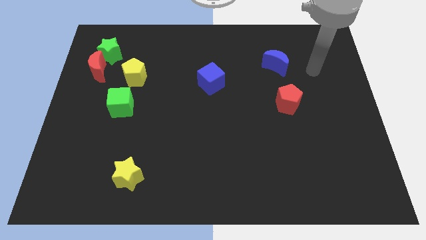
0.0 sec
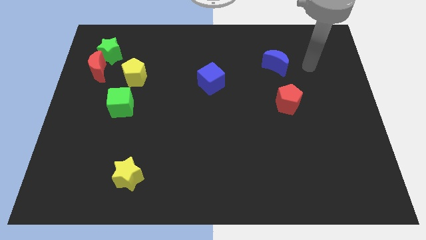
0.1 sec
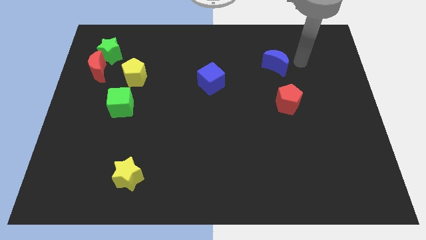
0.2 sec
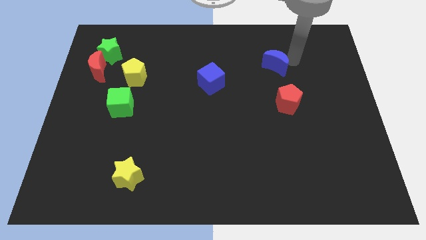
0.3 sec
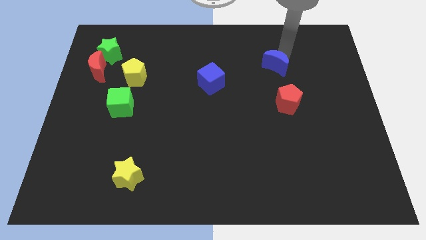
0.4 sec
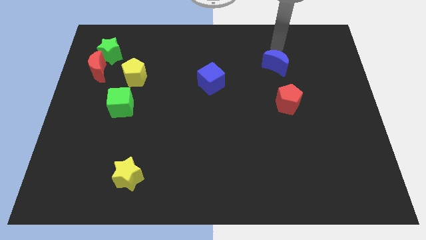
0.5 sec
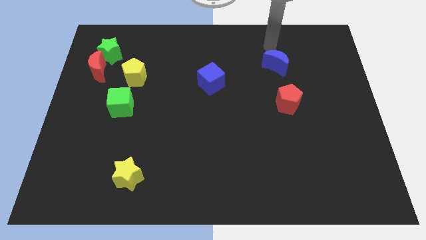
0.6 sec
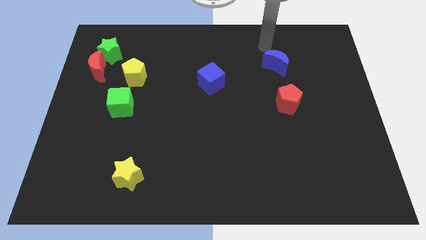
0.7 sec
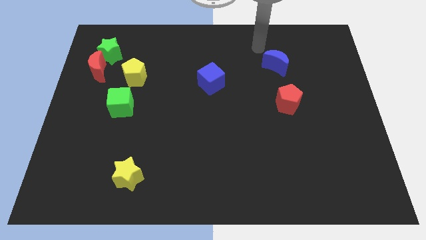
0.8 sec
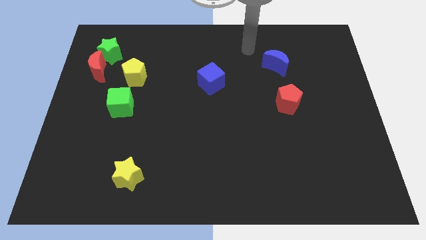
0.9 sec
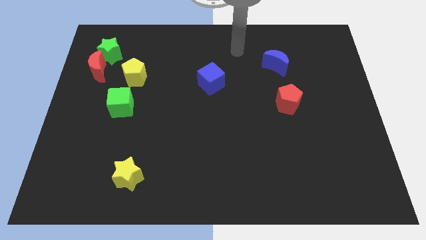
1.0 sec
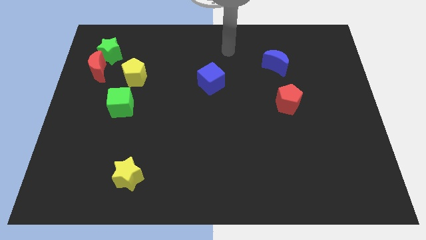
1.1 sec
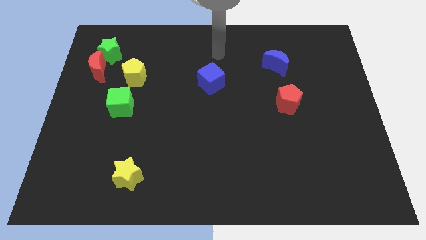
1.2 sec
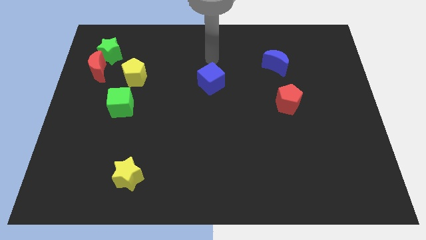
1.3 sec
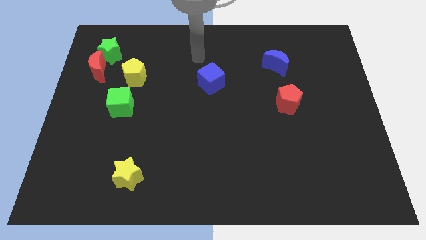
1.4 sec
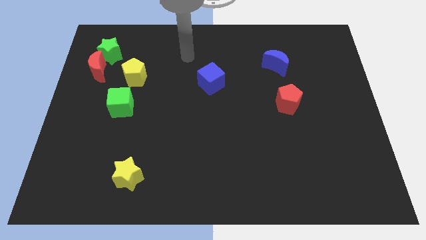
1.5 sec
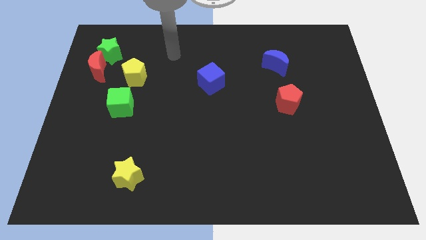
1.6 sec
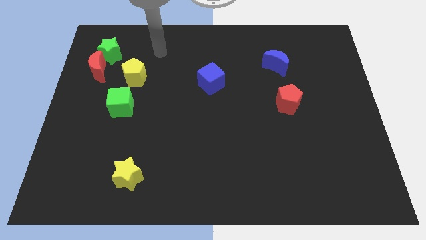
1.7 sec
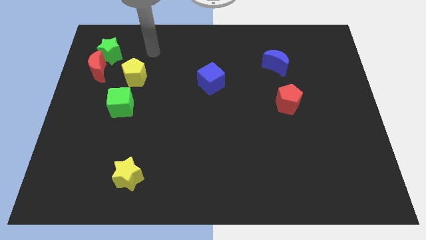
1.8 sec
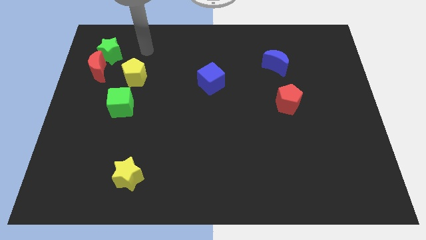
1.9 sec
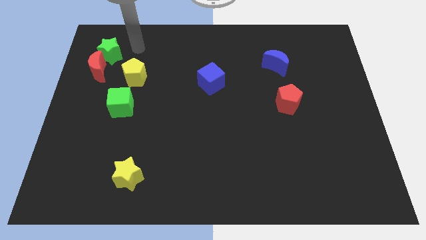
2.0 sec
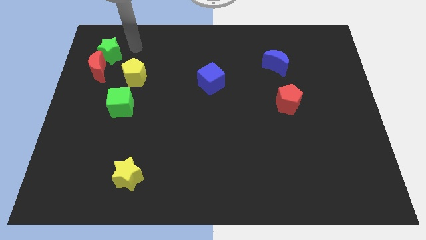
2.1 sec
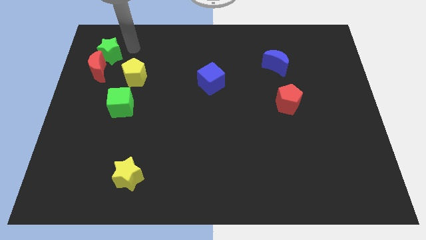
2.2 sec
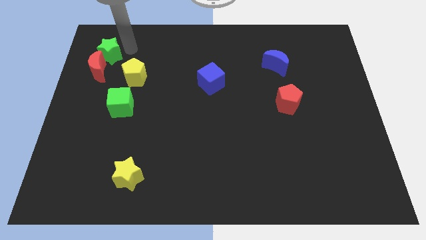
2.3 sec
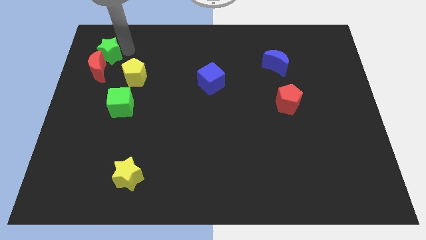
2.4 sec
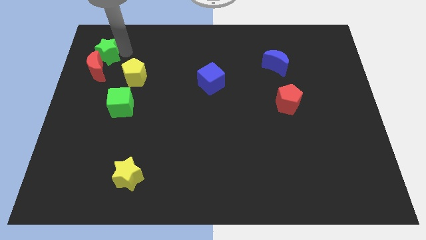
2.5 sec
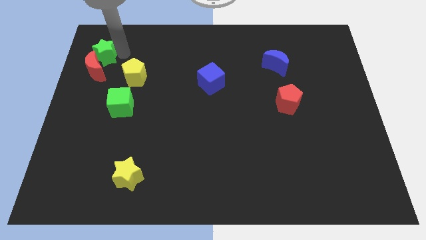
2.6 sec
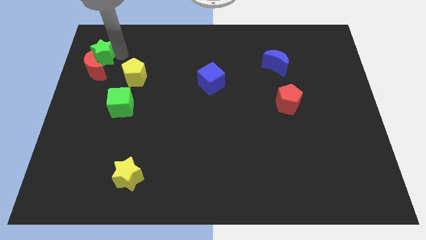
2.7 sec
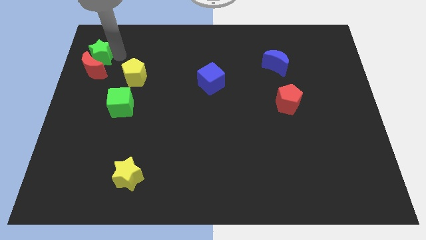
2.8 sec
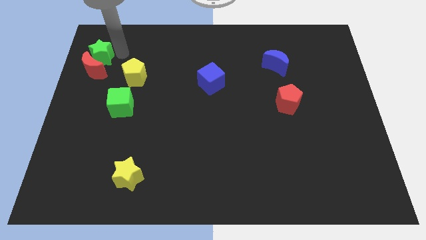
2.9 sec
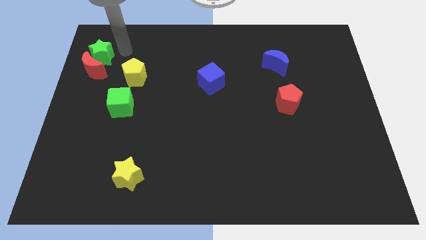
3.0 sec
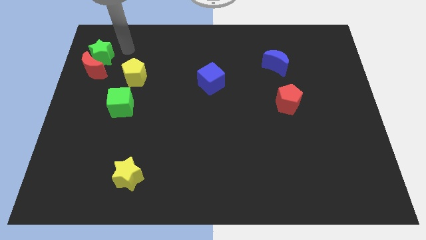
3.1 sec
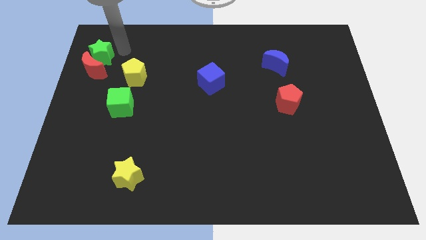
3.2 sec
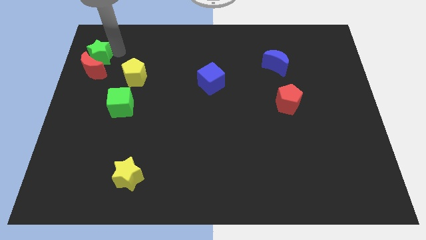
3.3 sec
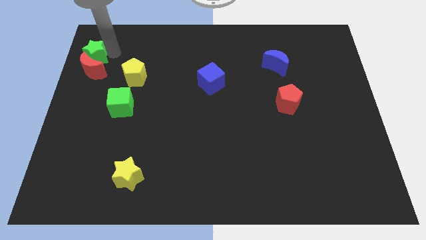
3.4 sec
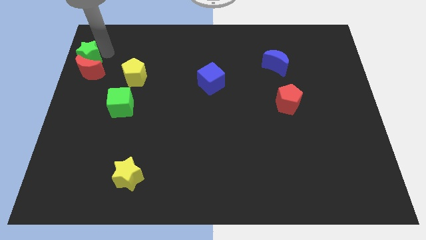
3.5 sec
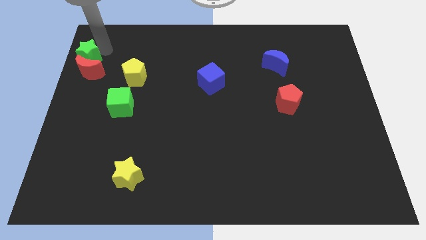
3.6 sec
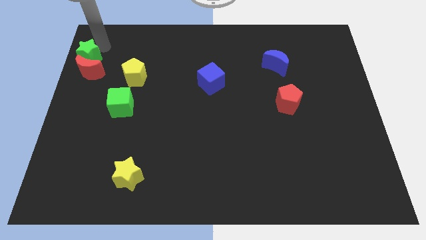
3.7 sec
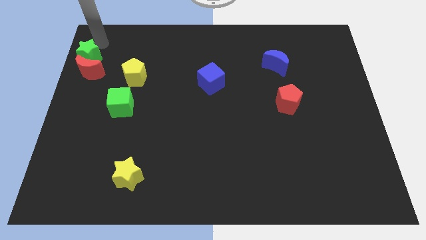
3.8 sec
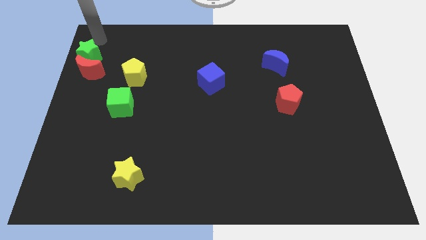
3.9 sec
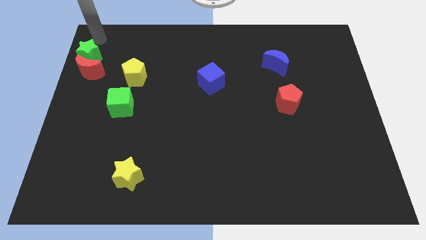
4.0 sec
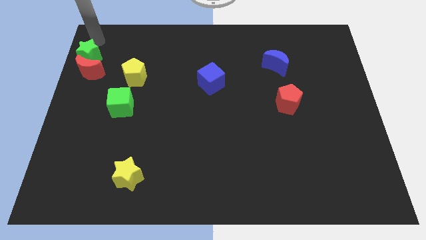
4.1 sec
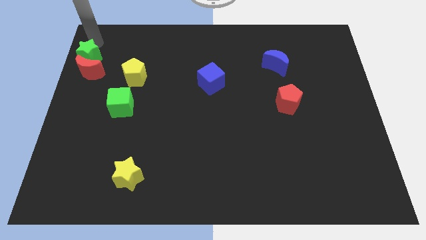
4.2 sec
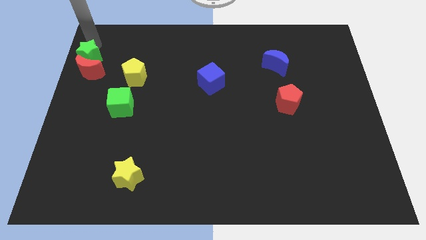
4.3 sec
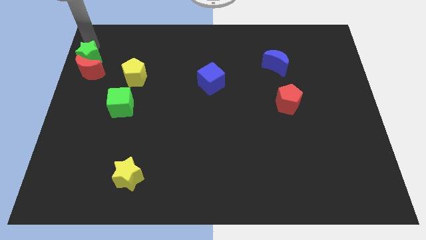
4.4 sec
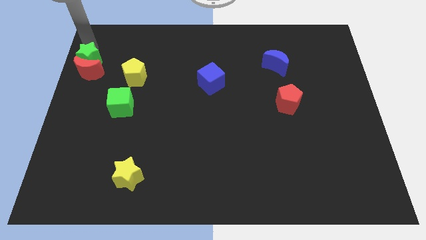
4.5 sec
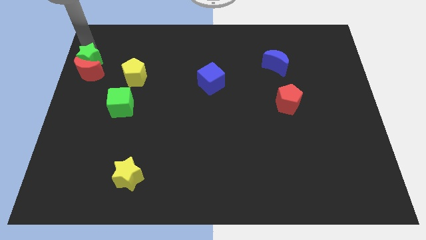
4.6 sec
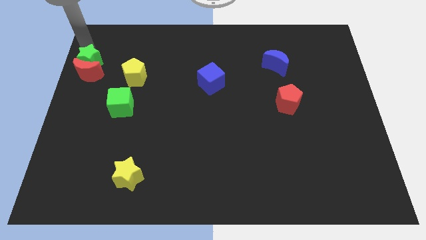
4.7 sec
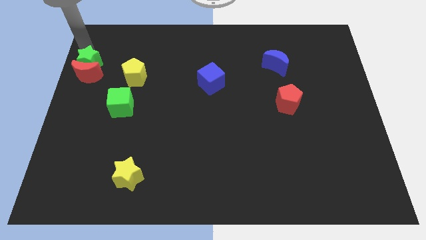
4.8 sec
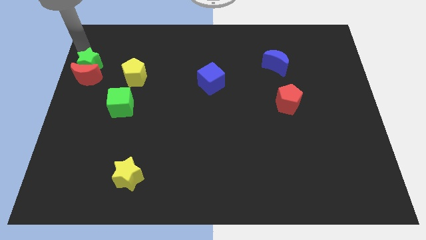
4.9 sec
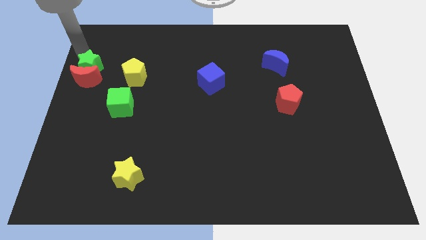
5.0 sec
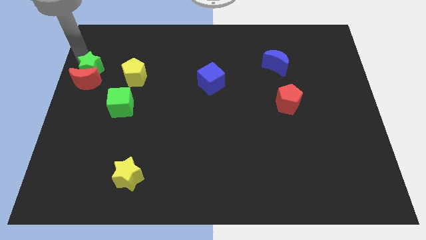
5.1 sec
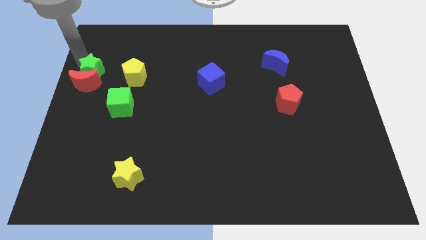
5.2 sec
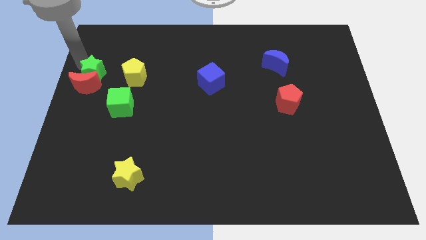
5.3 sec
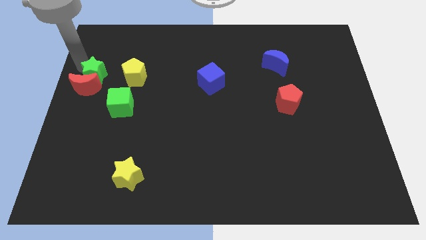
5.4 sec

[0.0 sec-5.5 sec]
slide the green star a bit down

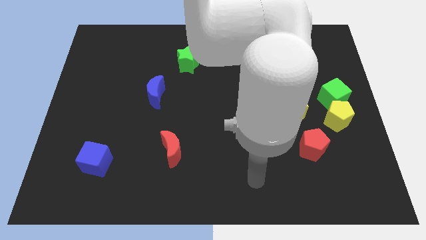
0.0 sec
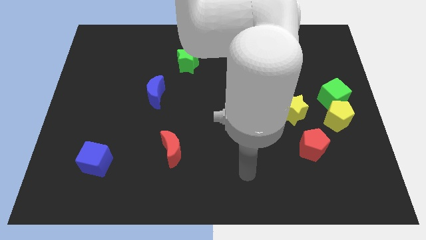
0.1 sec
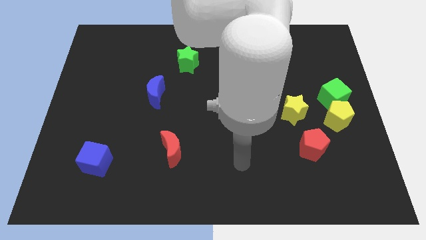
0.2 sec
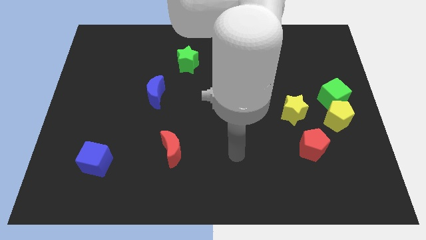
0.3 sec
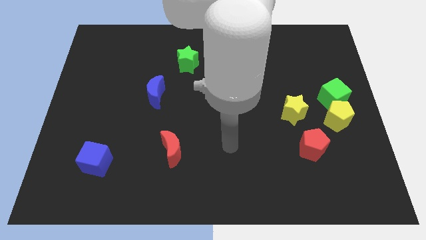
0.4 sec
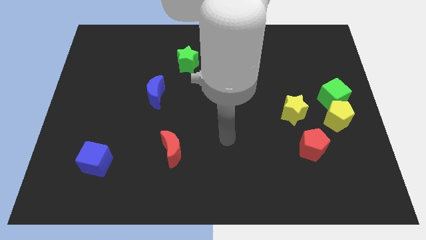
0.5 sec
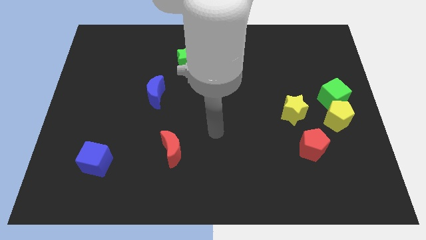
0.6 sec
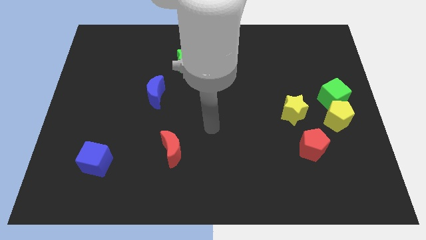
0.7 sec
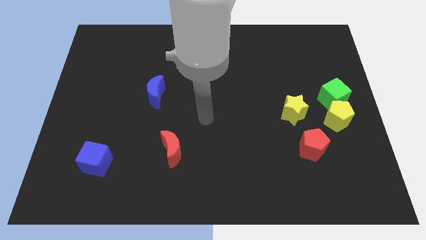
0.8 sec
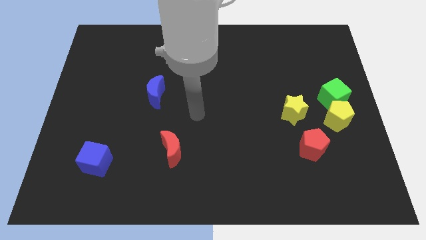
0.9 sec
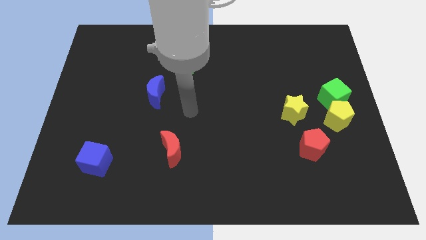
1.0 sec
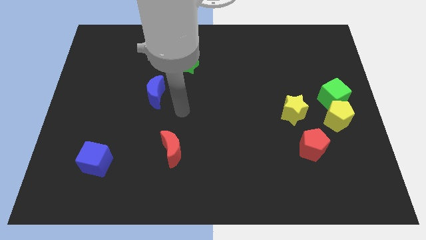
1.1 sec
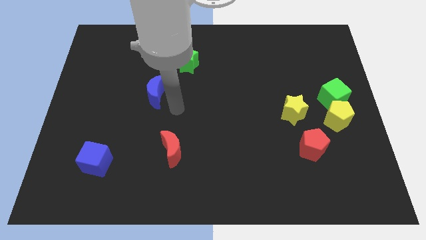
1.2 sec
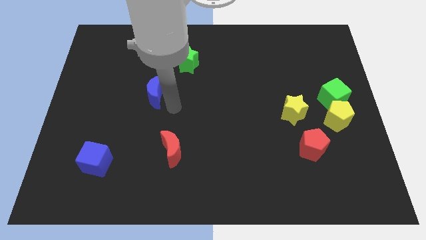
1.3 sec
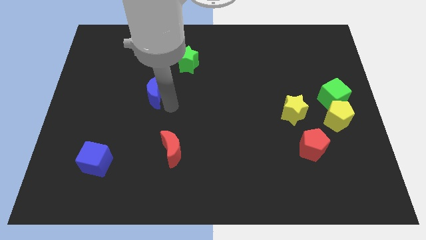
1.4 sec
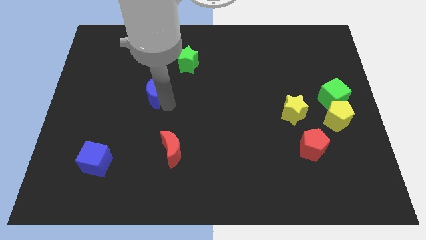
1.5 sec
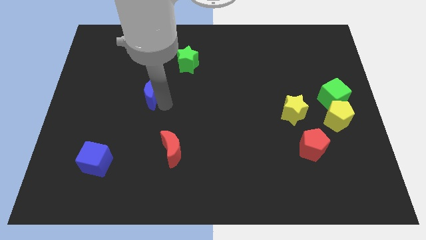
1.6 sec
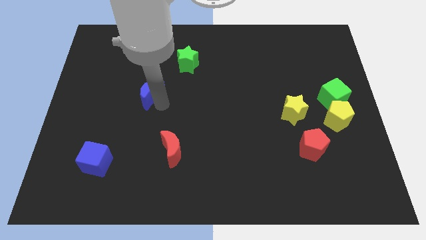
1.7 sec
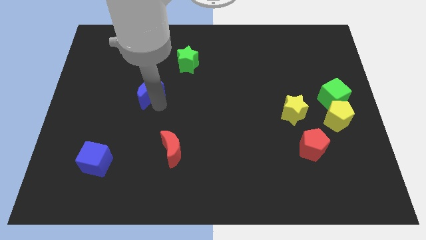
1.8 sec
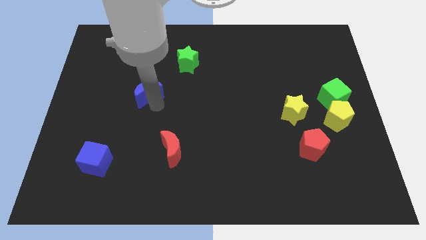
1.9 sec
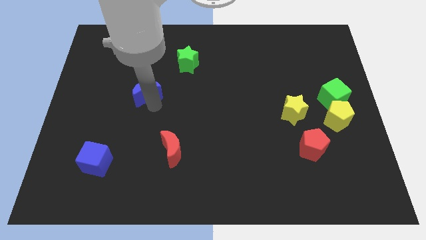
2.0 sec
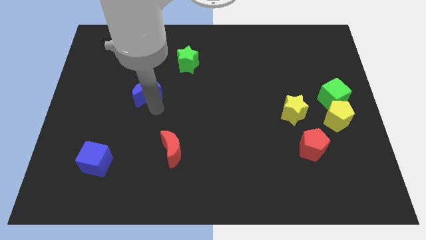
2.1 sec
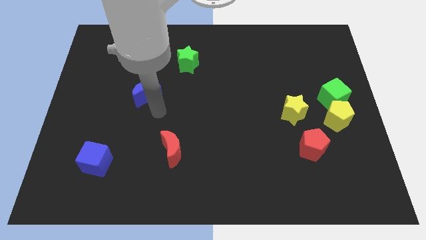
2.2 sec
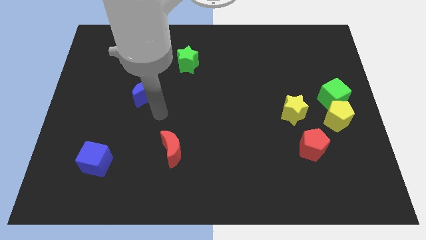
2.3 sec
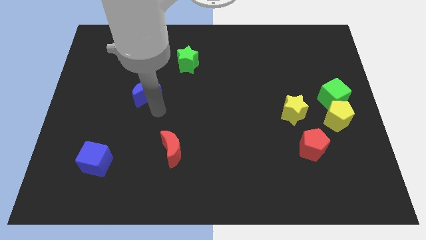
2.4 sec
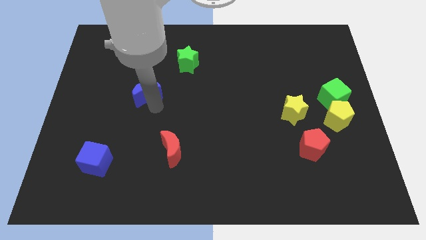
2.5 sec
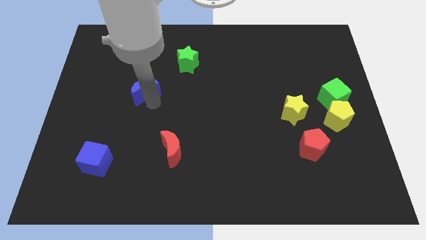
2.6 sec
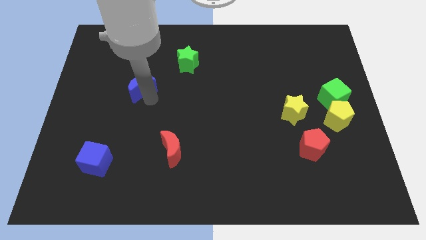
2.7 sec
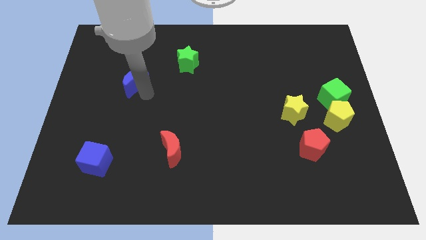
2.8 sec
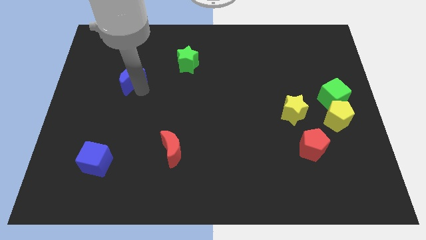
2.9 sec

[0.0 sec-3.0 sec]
slightly push the blue moon diagonally up and to the left

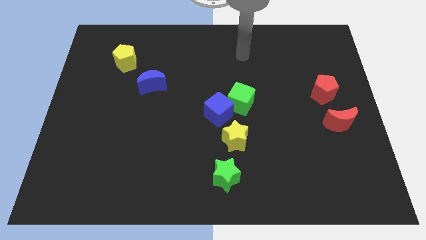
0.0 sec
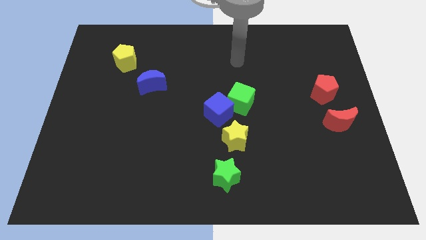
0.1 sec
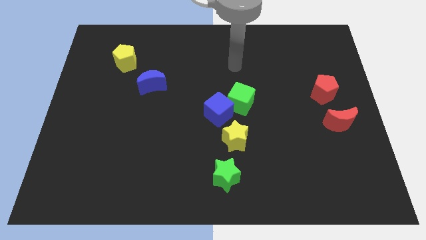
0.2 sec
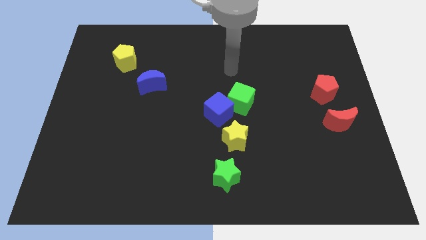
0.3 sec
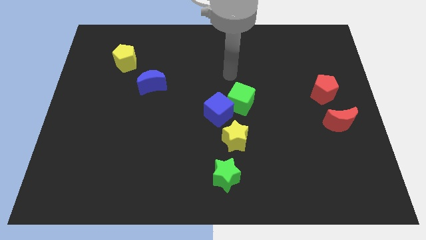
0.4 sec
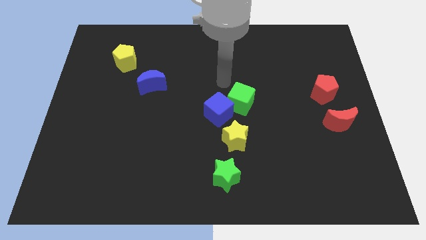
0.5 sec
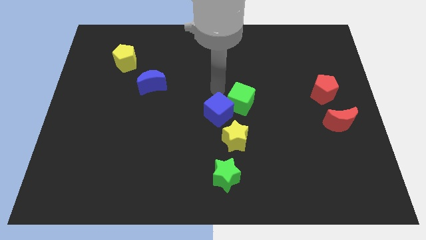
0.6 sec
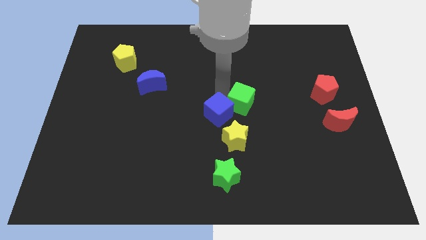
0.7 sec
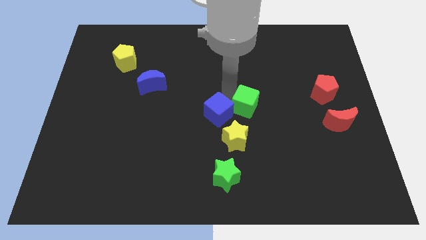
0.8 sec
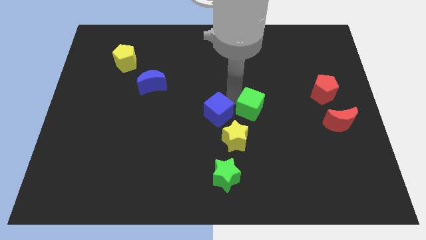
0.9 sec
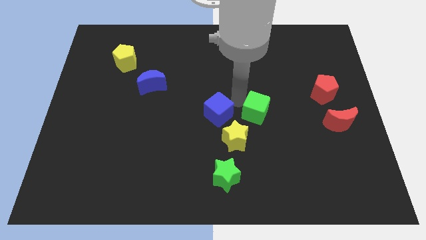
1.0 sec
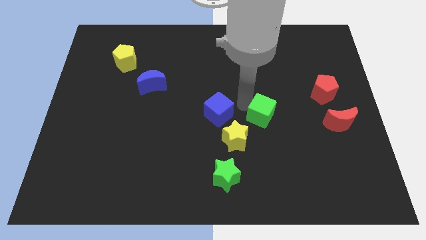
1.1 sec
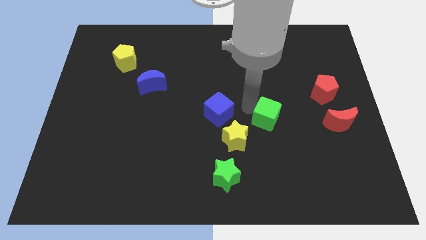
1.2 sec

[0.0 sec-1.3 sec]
slightly move the green cube diagonally down and right
